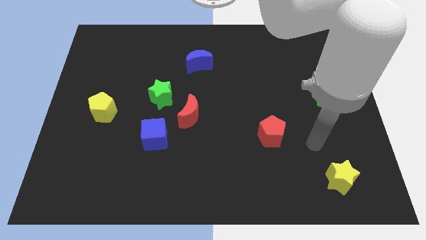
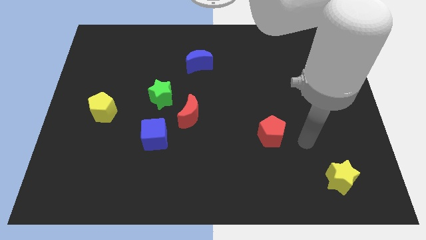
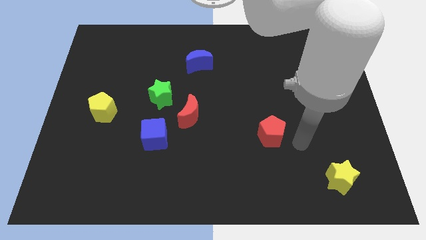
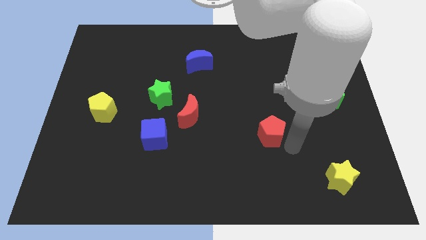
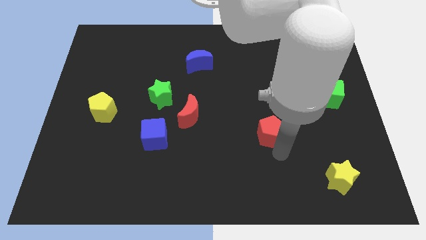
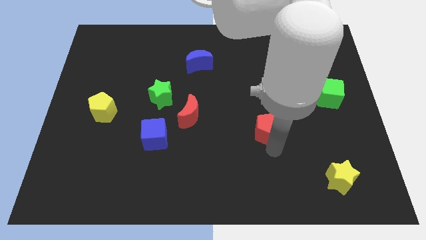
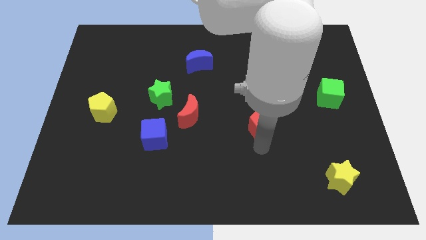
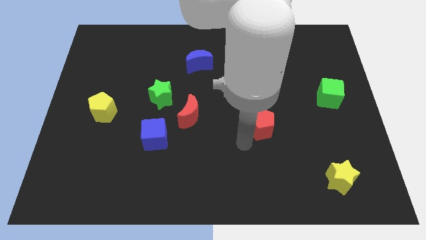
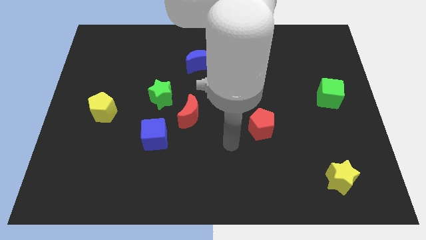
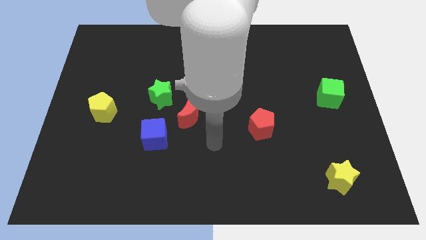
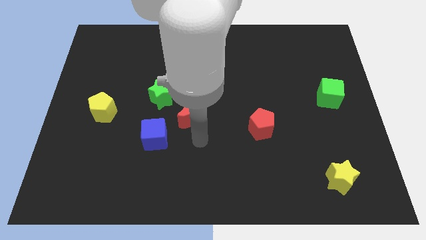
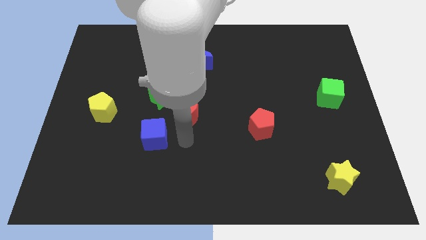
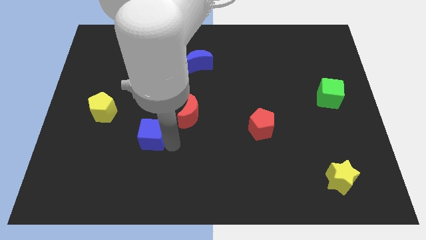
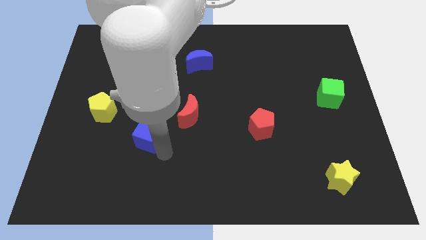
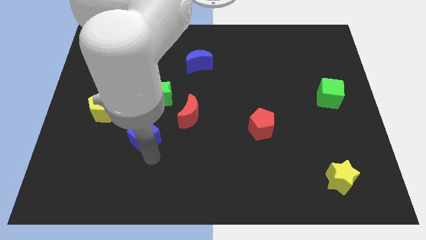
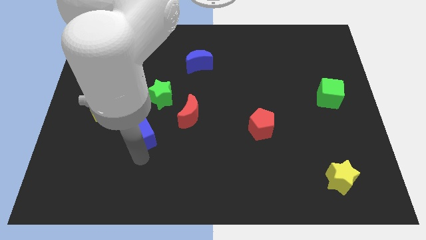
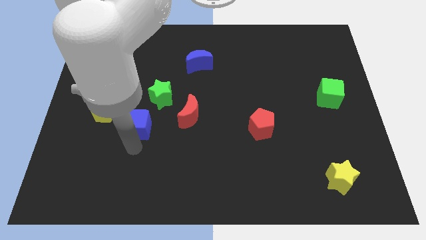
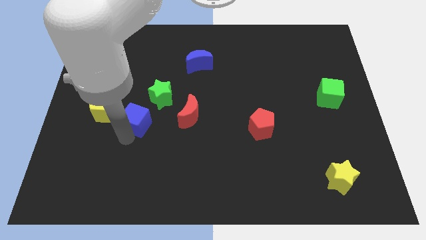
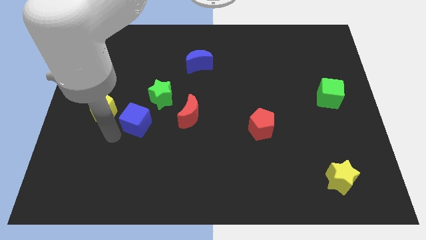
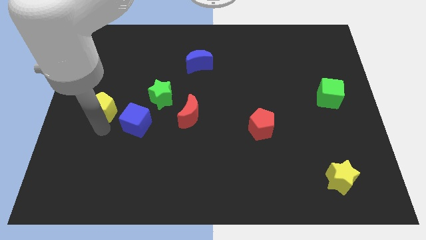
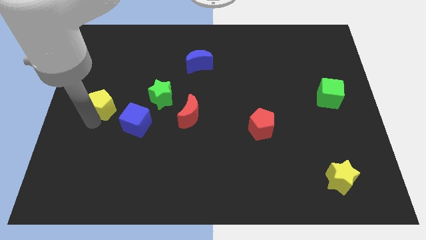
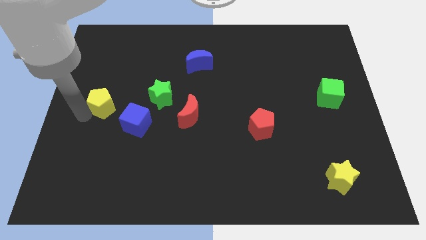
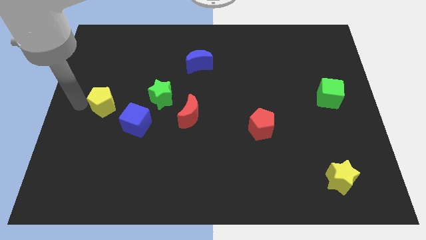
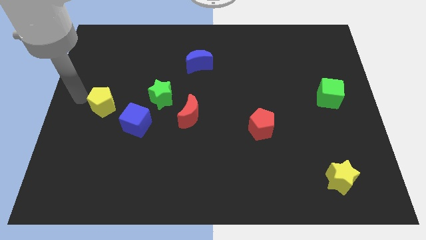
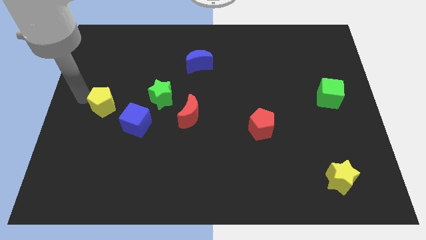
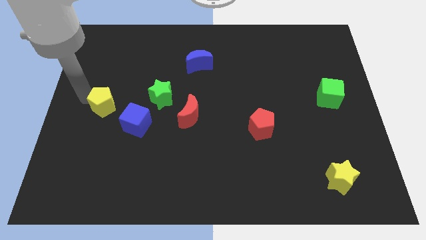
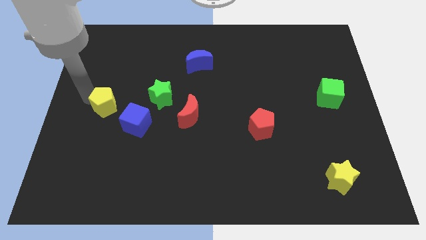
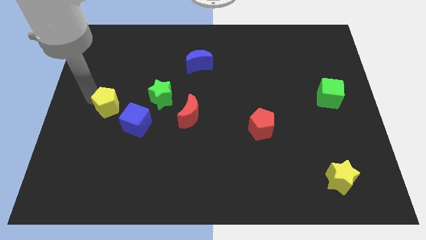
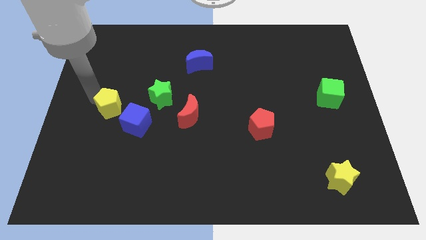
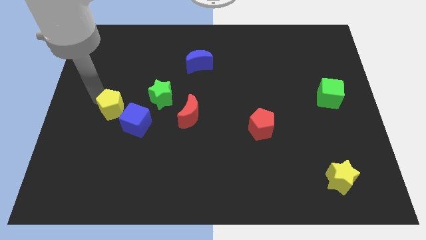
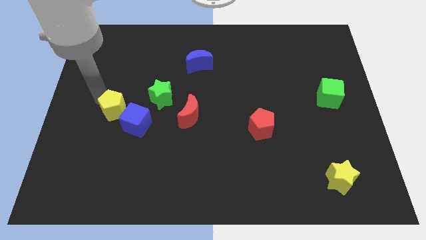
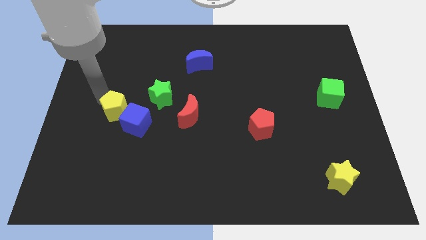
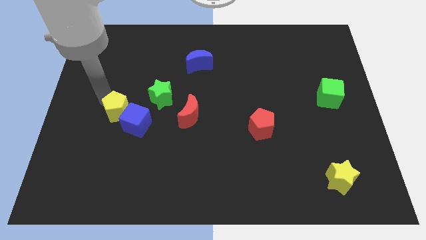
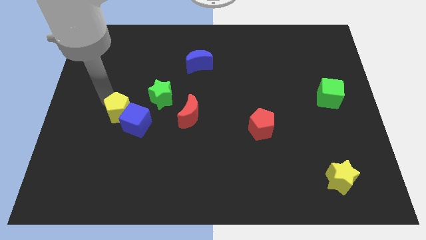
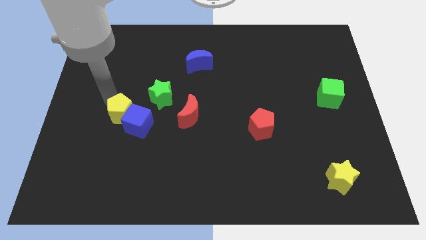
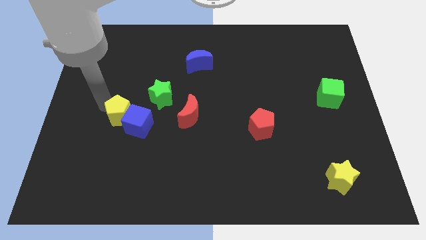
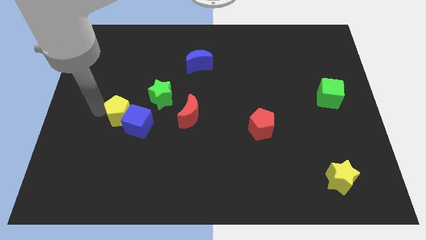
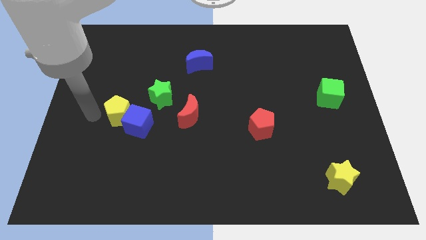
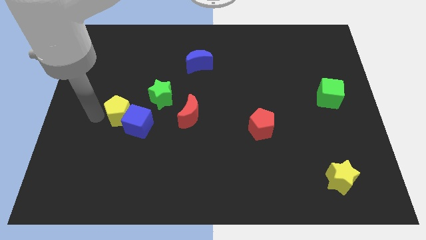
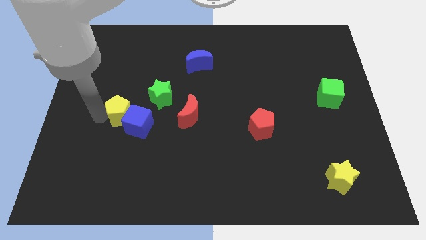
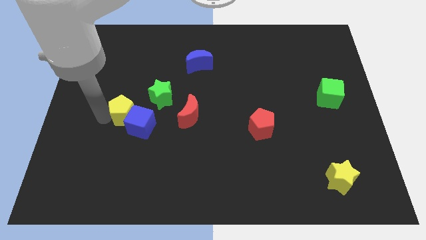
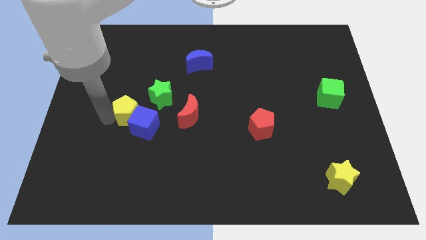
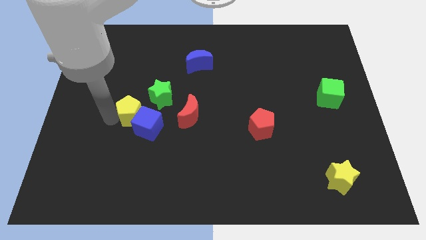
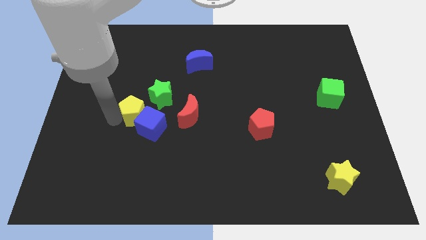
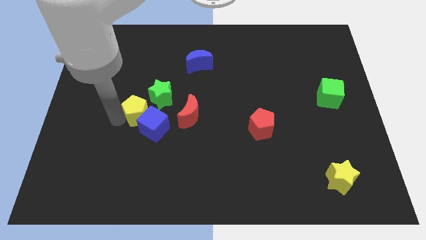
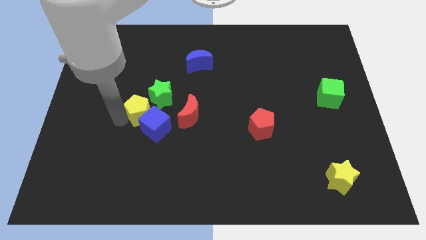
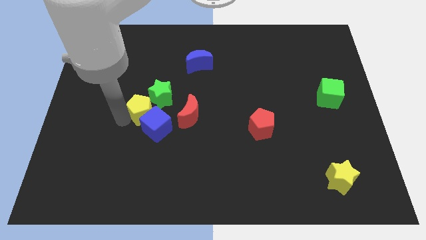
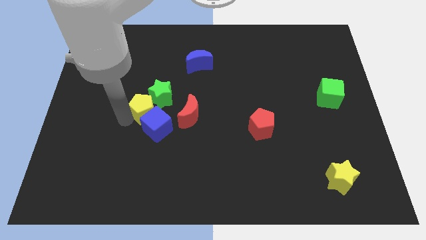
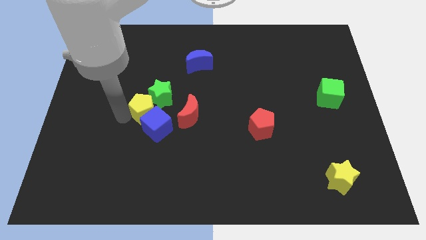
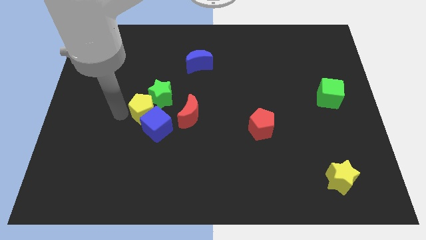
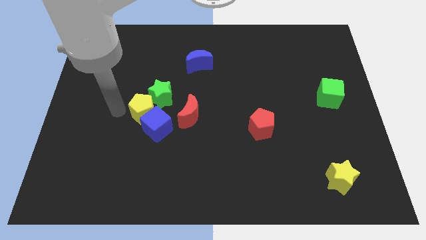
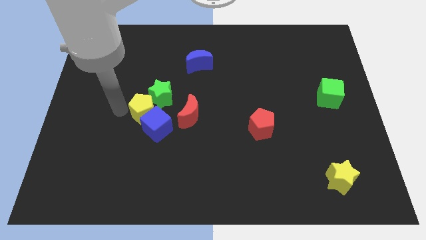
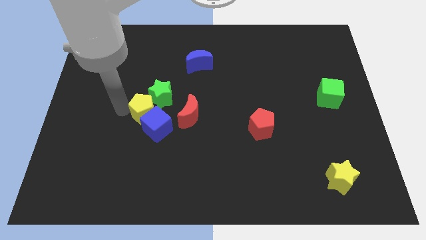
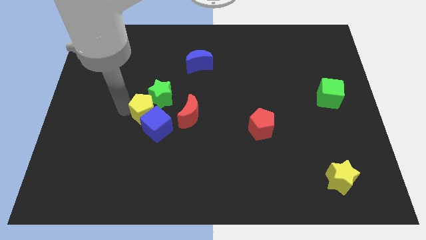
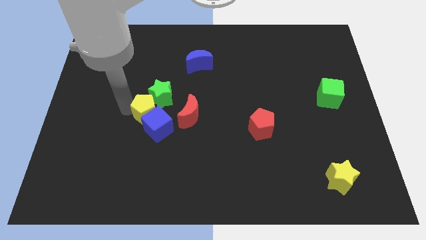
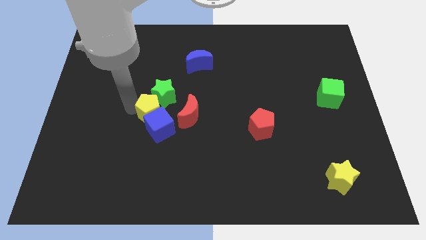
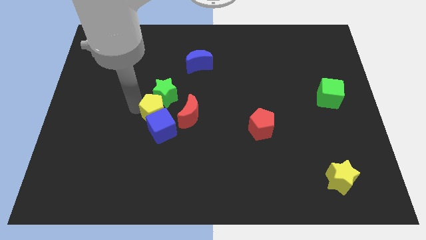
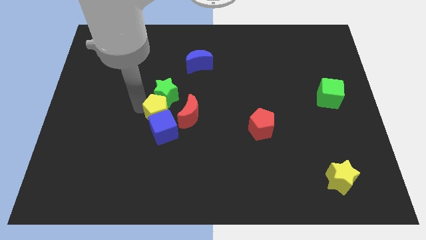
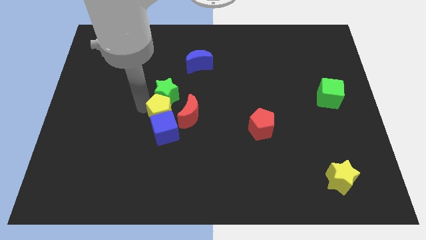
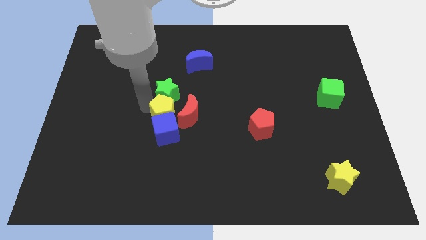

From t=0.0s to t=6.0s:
put the yellow pentagon towards the red moon

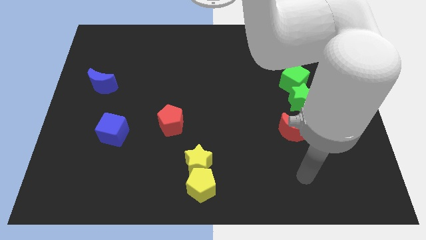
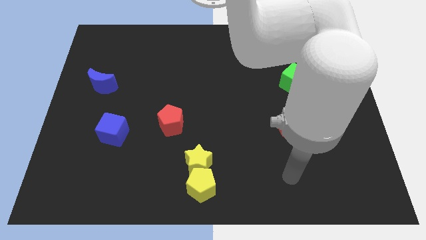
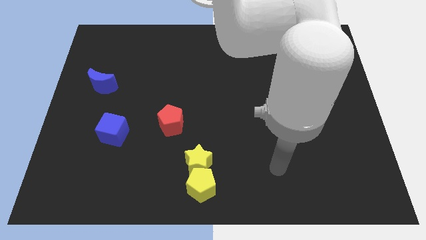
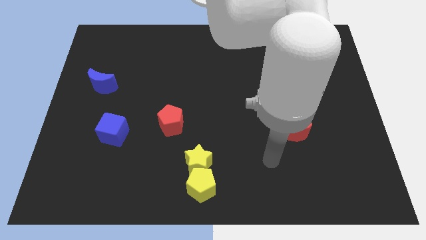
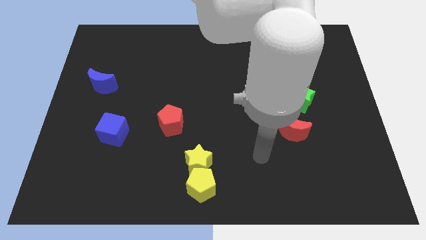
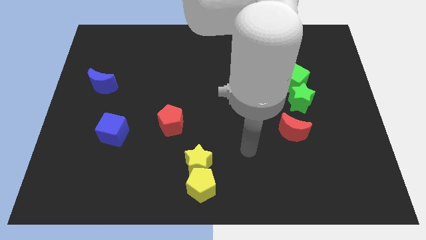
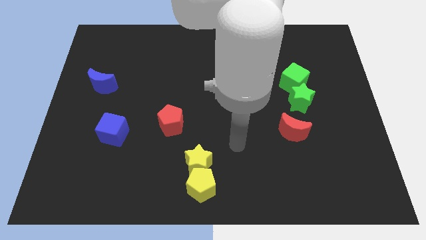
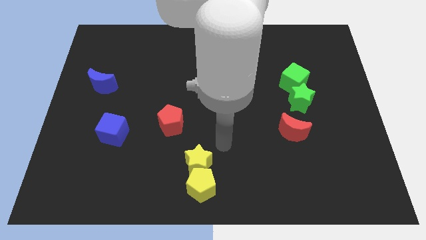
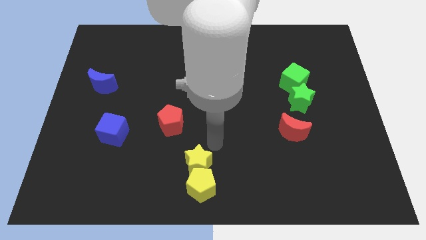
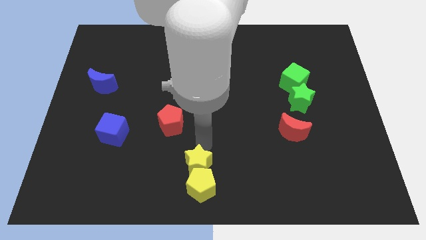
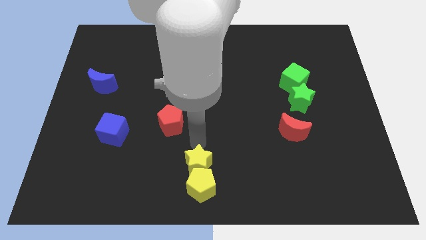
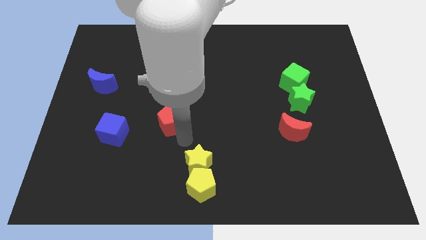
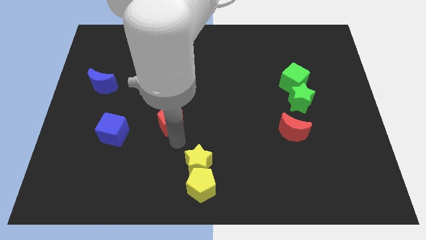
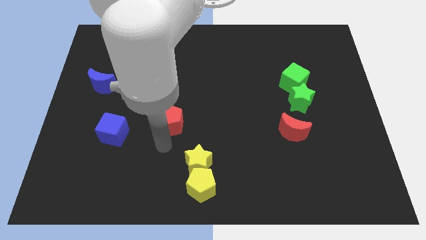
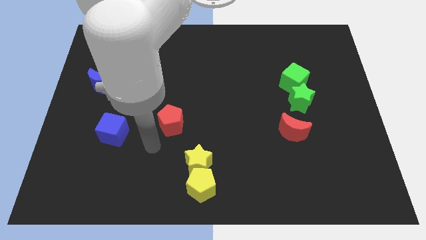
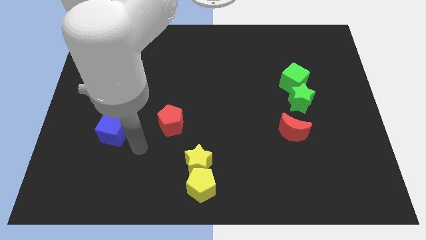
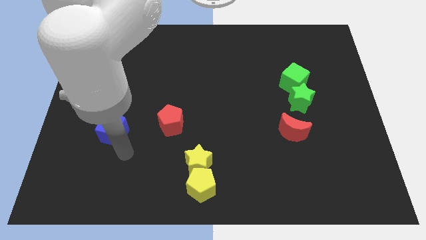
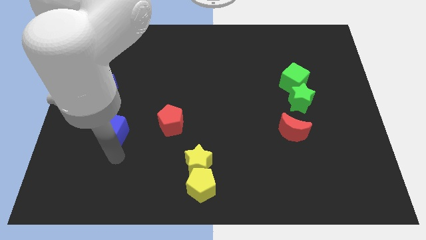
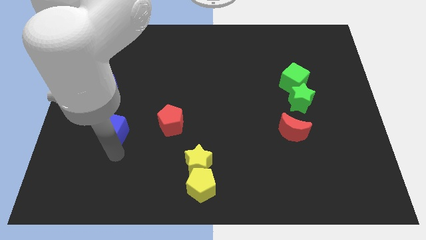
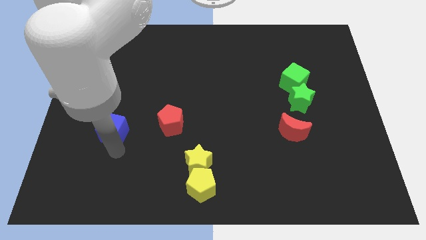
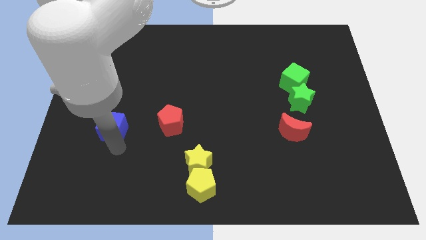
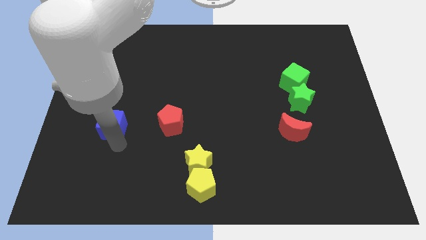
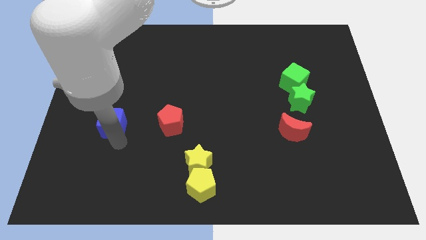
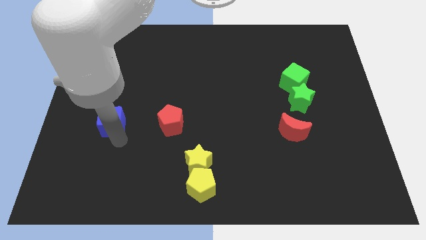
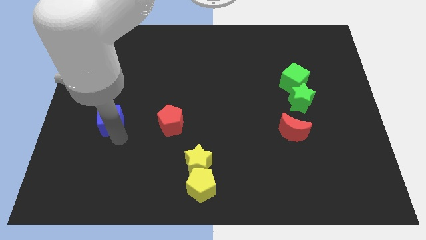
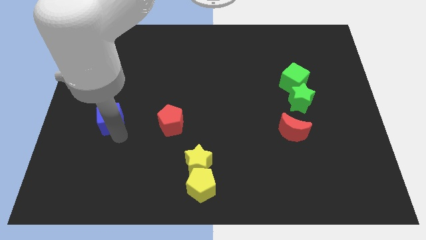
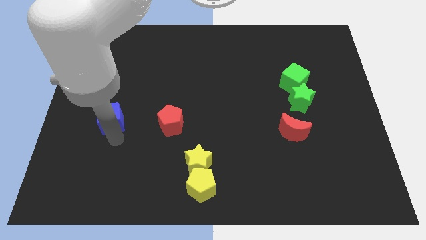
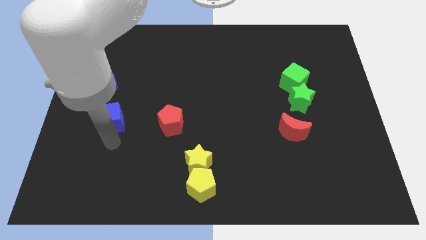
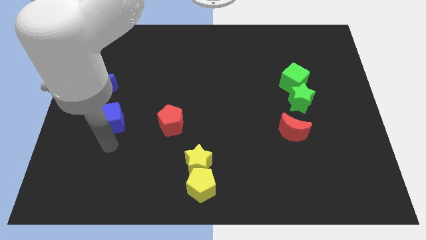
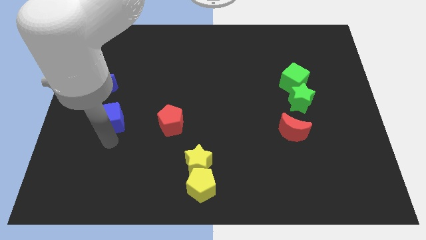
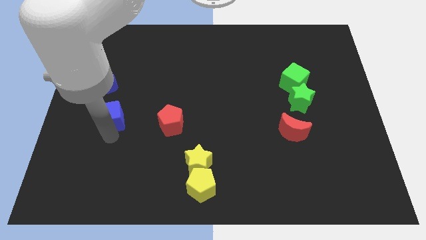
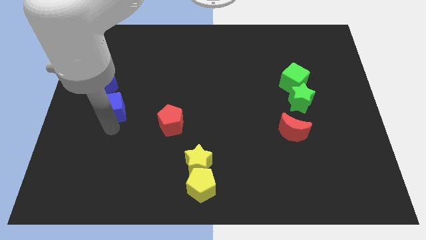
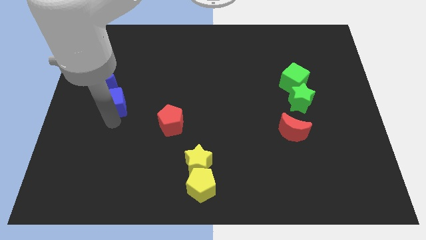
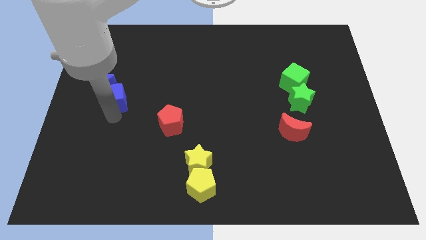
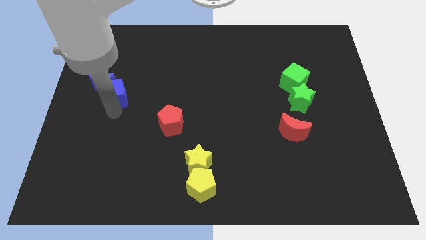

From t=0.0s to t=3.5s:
slide the blue cube towards the blue moon
